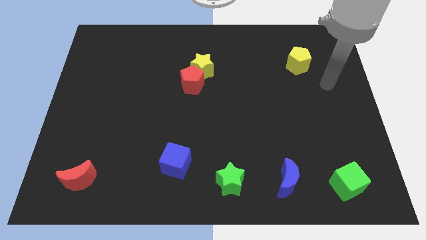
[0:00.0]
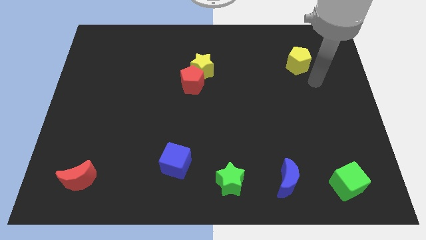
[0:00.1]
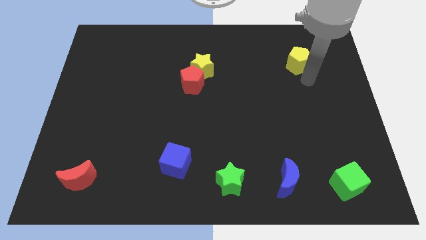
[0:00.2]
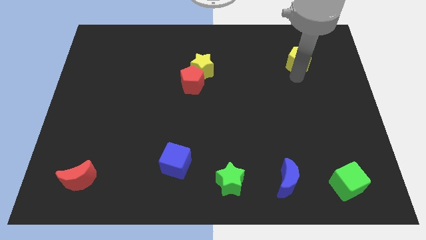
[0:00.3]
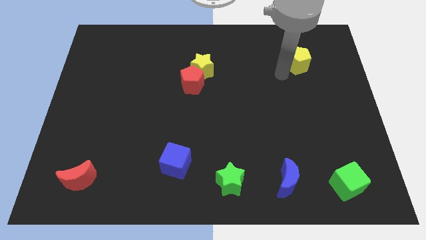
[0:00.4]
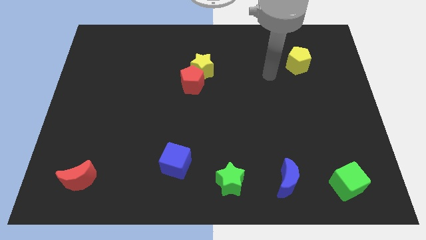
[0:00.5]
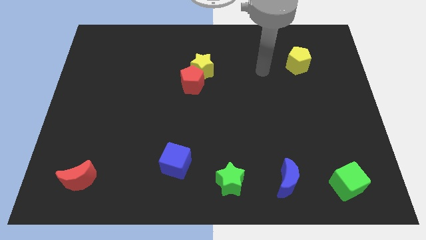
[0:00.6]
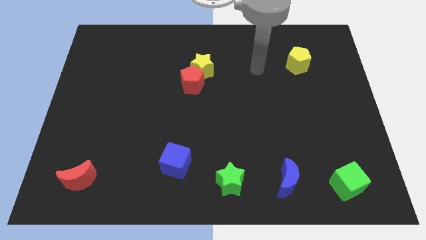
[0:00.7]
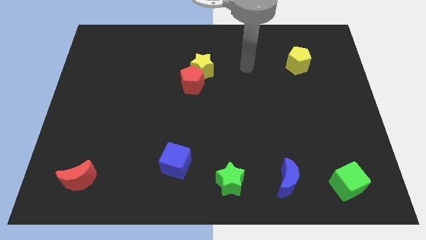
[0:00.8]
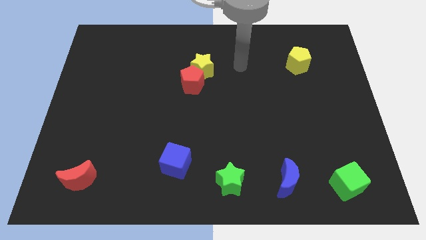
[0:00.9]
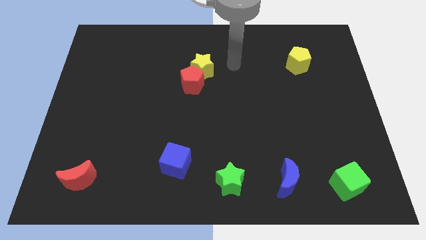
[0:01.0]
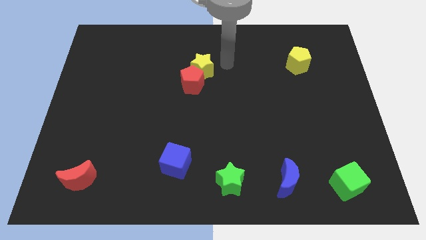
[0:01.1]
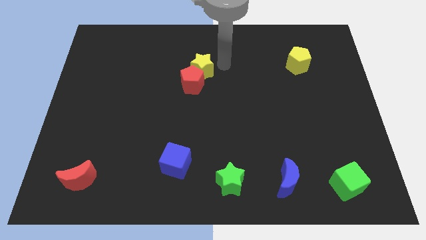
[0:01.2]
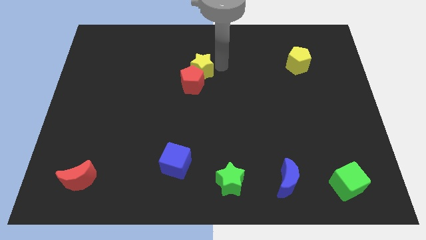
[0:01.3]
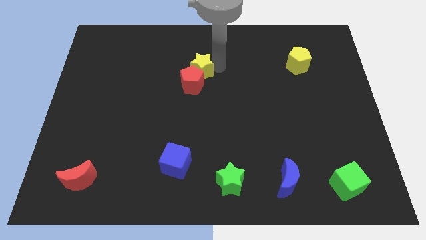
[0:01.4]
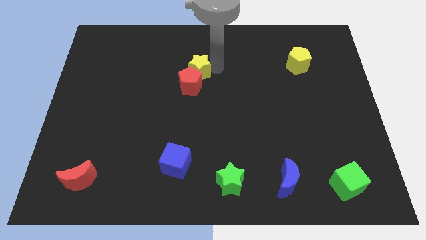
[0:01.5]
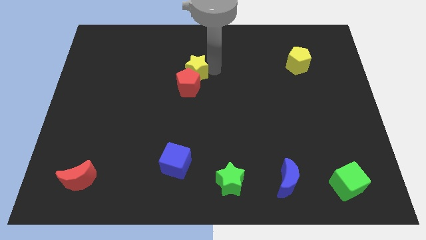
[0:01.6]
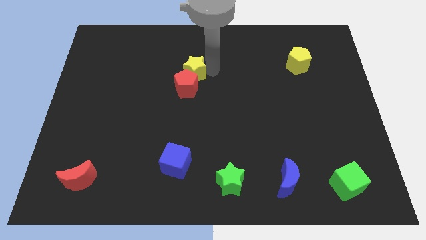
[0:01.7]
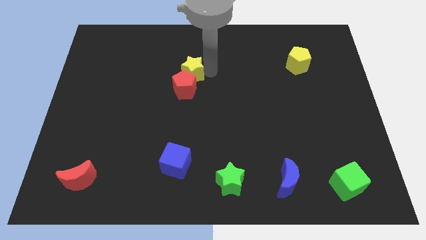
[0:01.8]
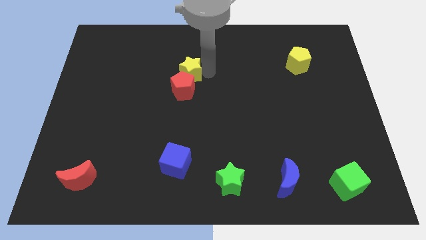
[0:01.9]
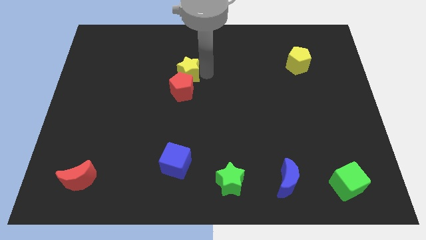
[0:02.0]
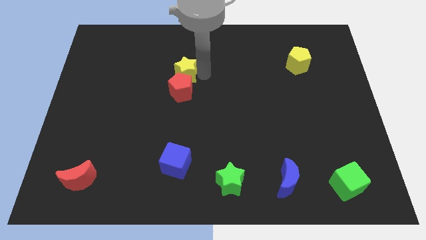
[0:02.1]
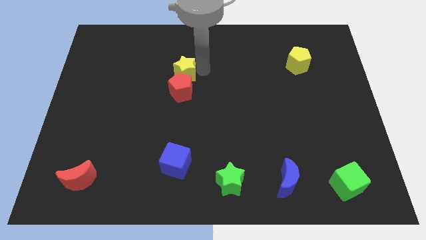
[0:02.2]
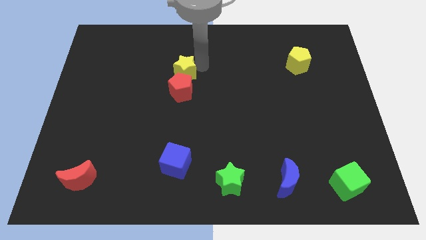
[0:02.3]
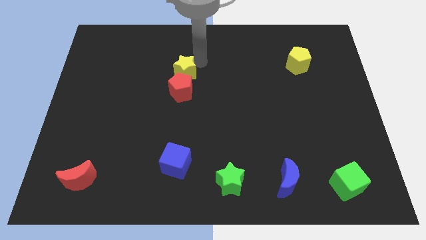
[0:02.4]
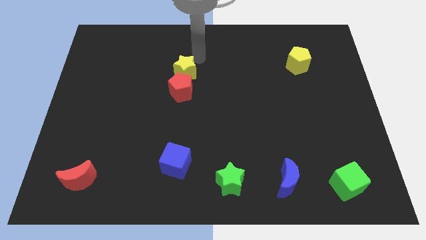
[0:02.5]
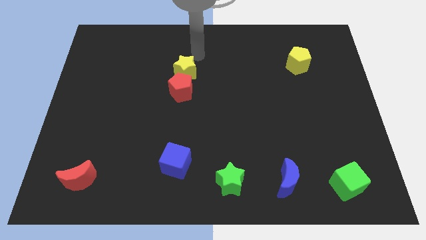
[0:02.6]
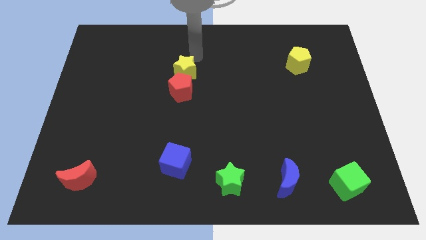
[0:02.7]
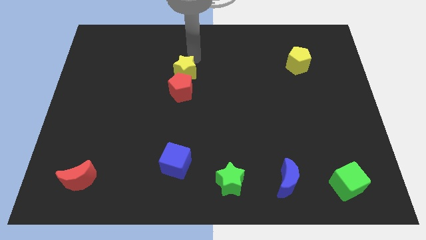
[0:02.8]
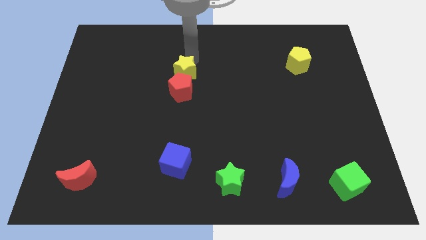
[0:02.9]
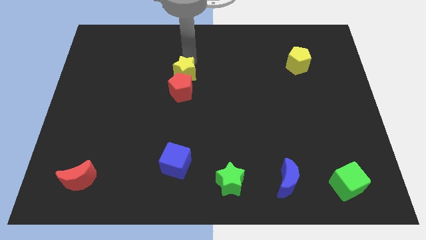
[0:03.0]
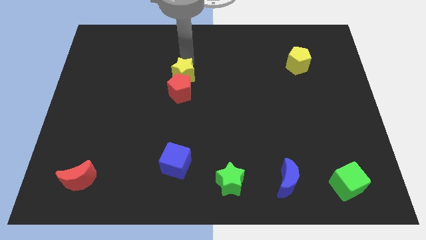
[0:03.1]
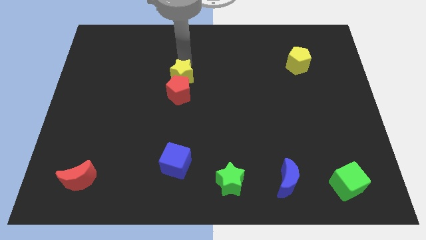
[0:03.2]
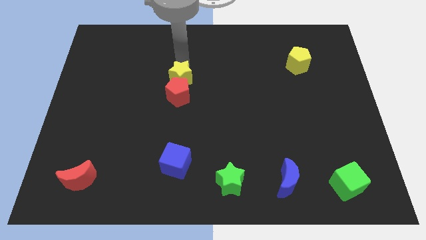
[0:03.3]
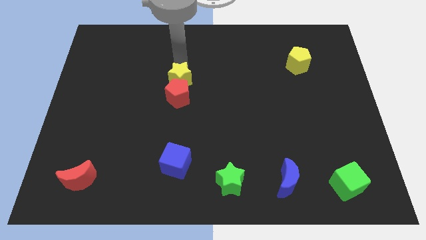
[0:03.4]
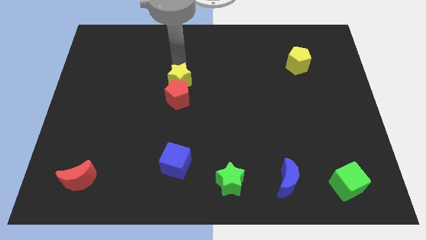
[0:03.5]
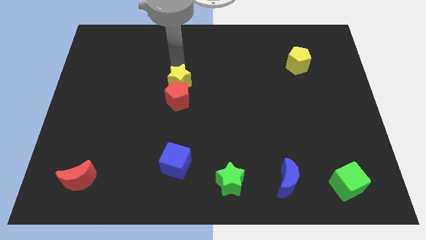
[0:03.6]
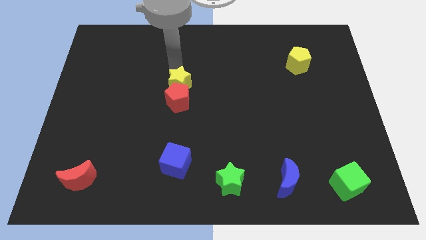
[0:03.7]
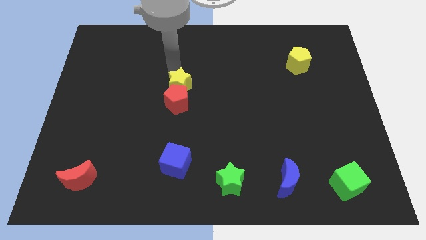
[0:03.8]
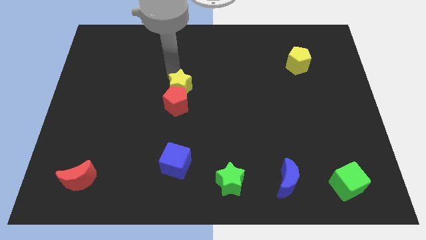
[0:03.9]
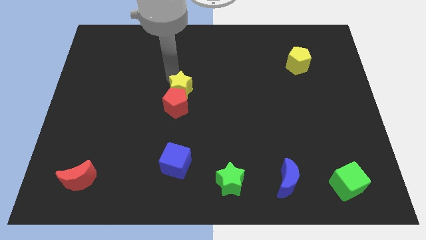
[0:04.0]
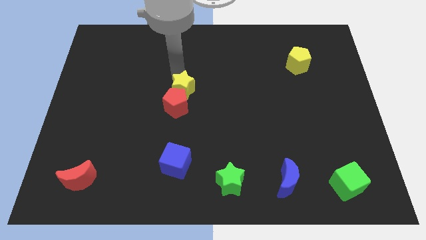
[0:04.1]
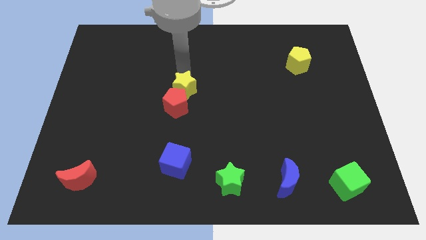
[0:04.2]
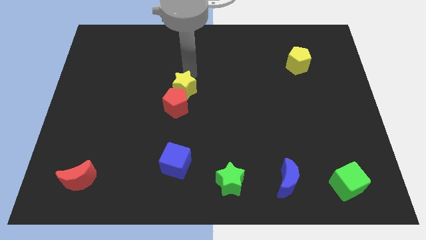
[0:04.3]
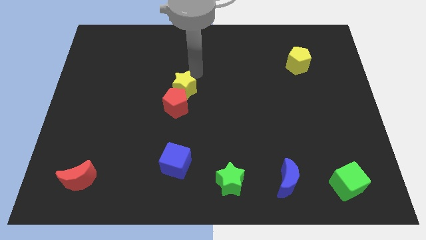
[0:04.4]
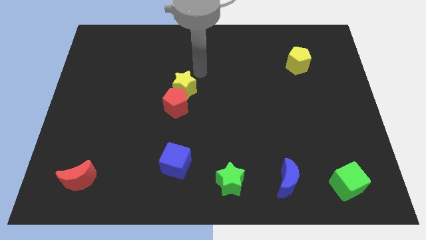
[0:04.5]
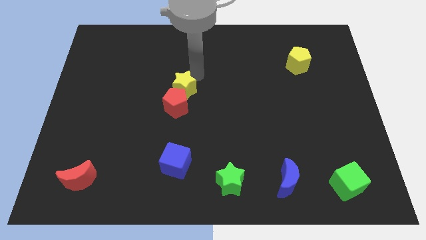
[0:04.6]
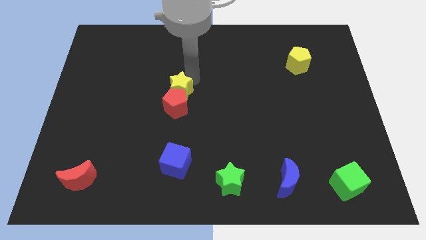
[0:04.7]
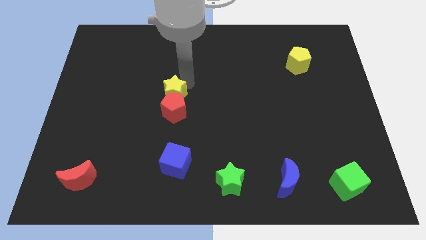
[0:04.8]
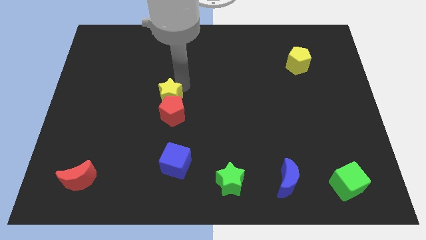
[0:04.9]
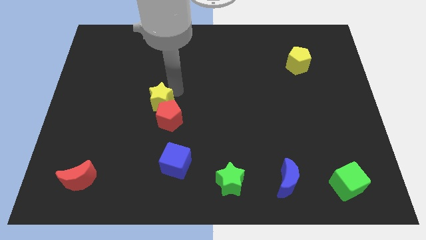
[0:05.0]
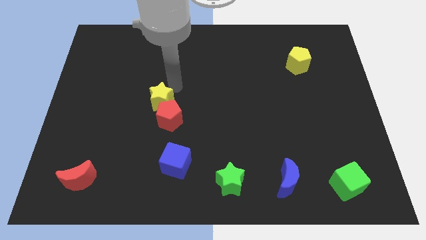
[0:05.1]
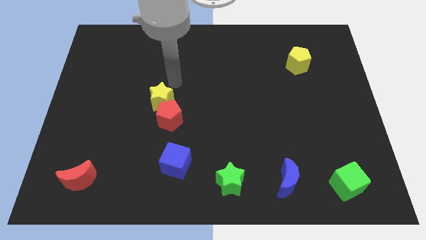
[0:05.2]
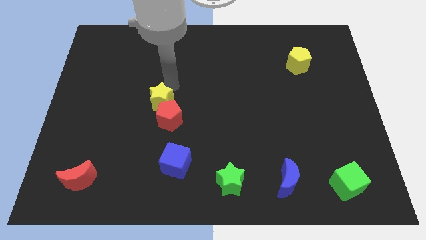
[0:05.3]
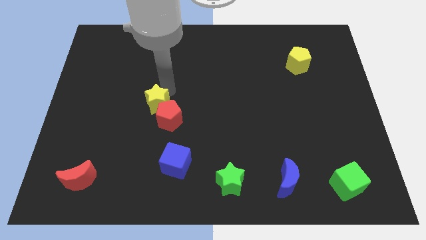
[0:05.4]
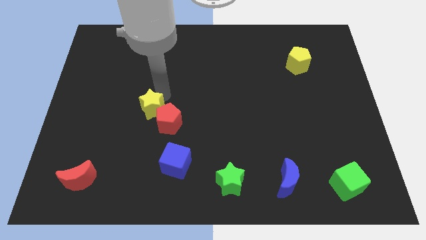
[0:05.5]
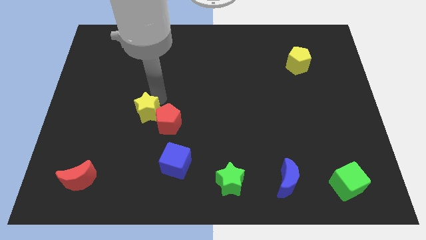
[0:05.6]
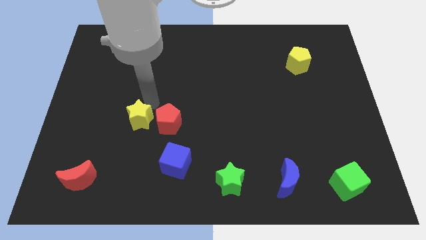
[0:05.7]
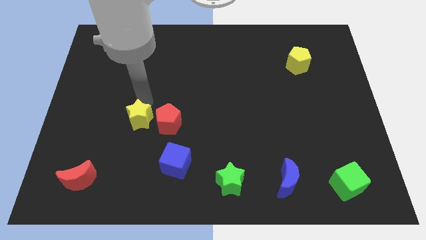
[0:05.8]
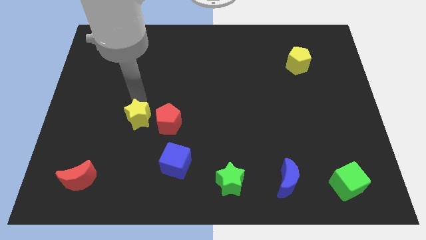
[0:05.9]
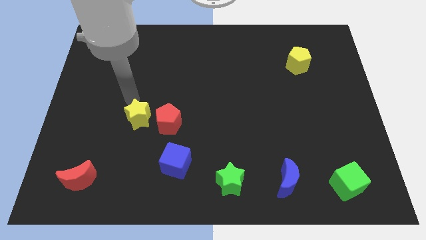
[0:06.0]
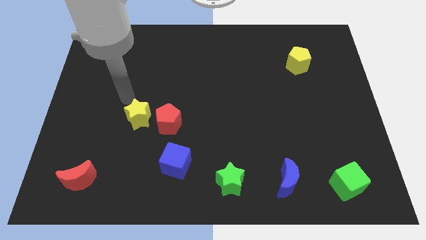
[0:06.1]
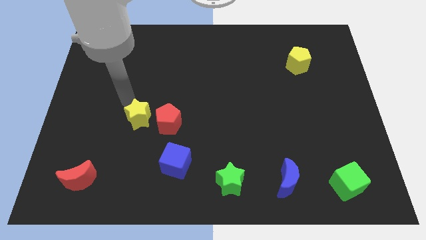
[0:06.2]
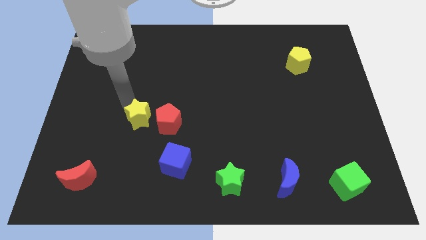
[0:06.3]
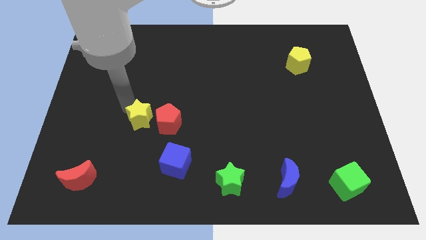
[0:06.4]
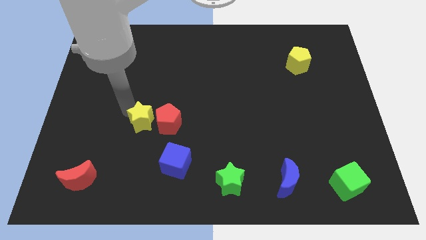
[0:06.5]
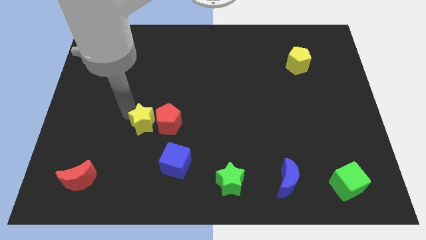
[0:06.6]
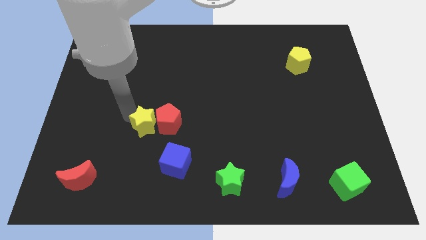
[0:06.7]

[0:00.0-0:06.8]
put the yellow star to the top left side of the blue cube
